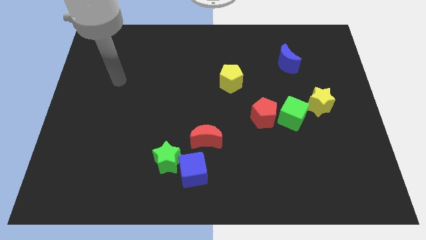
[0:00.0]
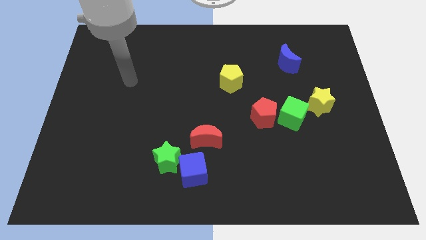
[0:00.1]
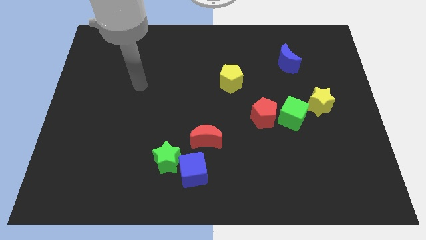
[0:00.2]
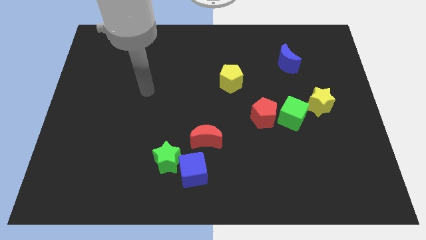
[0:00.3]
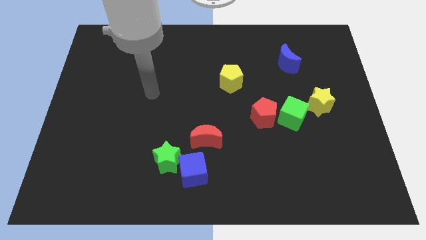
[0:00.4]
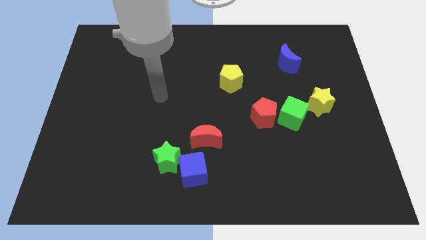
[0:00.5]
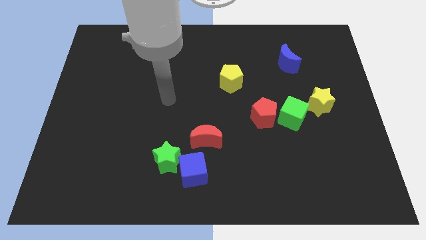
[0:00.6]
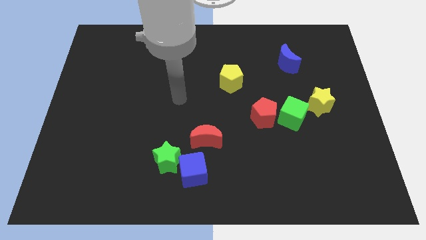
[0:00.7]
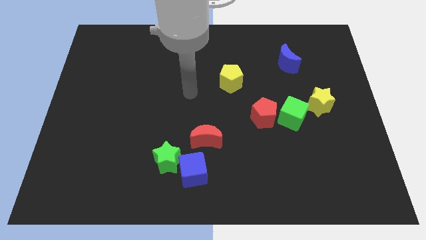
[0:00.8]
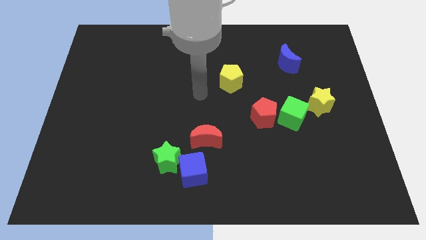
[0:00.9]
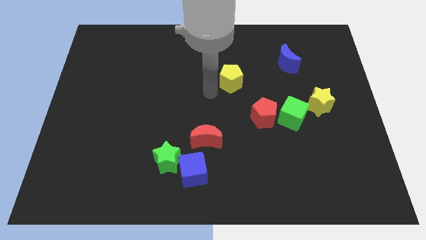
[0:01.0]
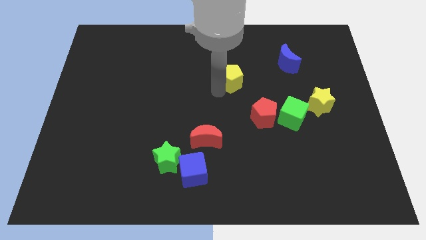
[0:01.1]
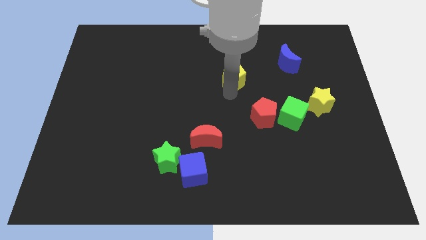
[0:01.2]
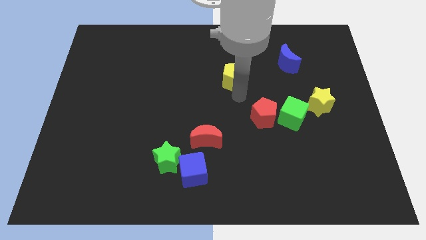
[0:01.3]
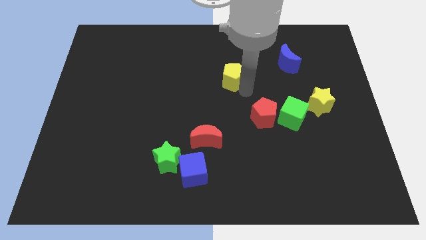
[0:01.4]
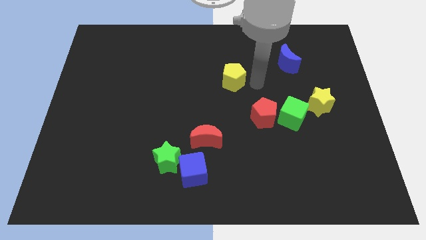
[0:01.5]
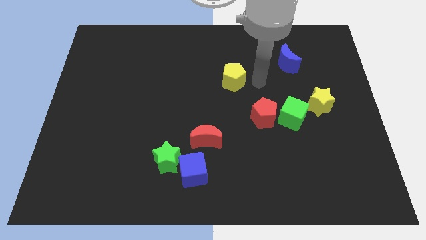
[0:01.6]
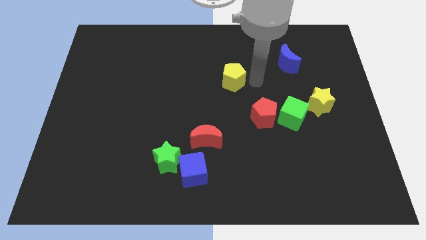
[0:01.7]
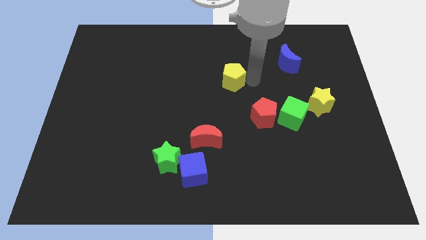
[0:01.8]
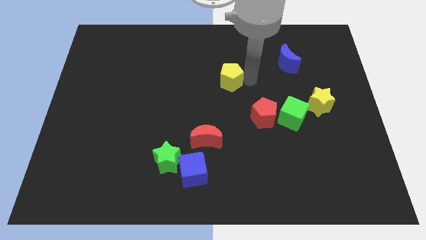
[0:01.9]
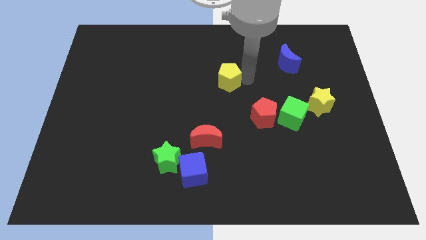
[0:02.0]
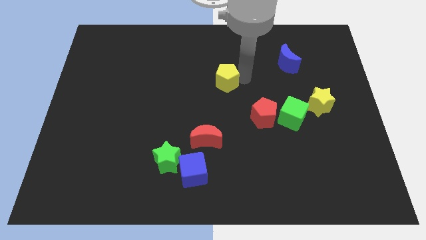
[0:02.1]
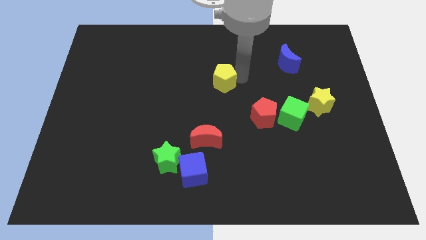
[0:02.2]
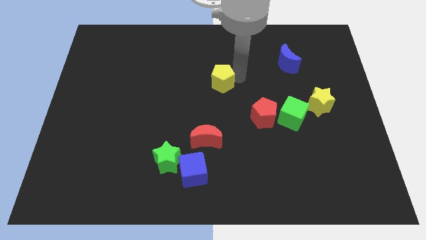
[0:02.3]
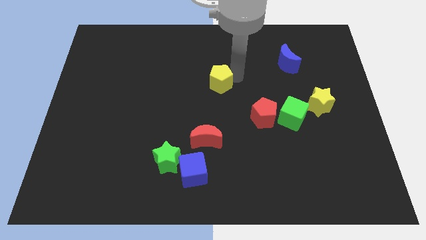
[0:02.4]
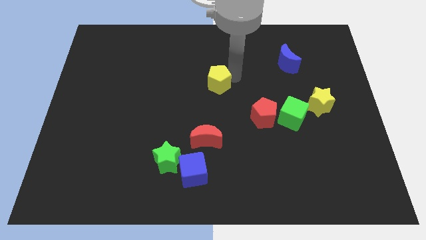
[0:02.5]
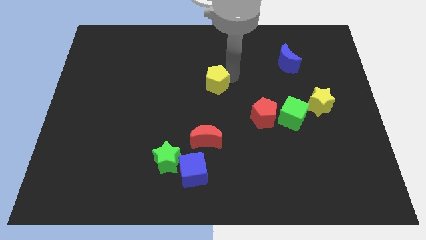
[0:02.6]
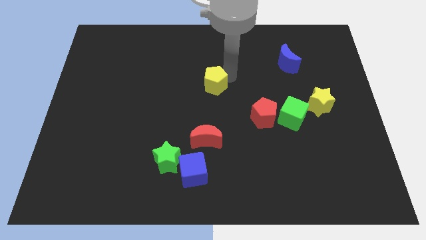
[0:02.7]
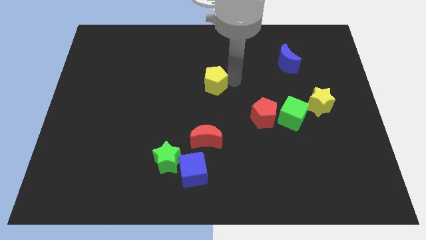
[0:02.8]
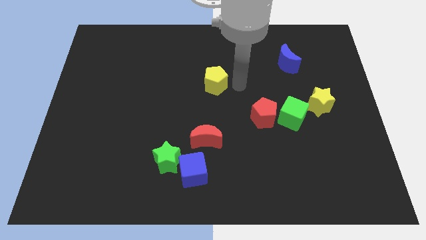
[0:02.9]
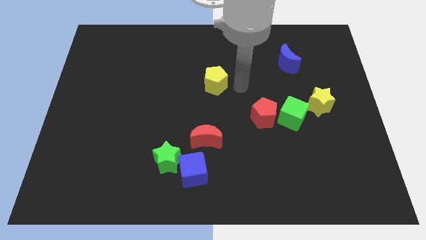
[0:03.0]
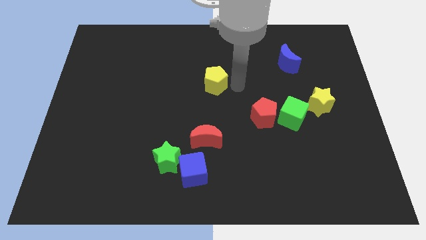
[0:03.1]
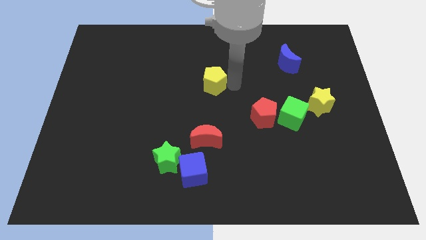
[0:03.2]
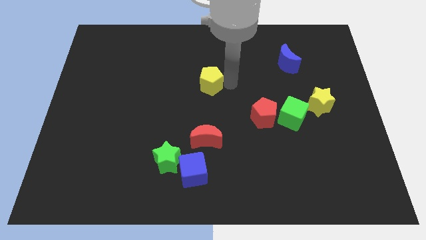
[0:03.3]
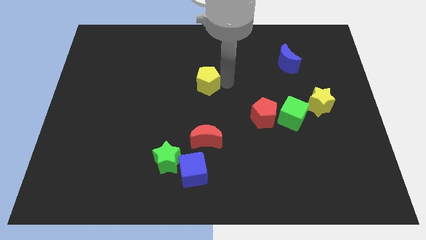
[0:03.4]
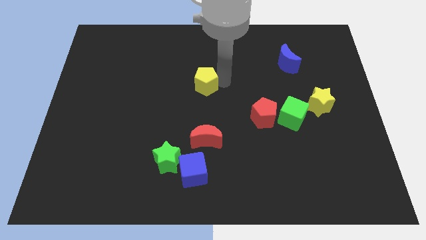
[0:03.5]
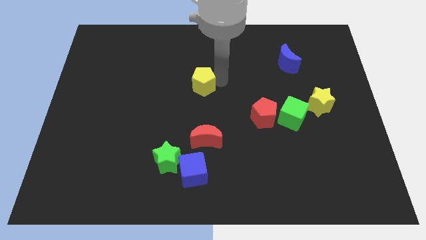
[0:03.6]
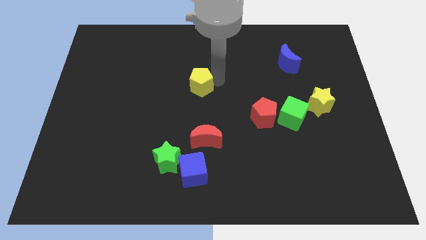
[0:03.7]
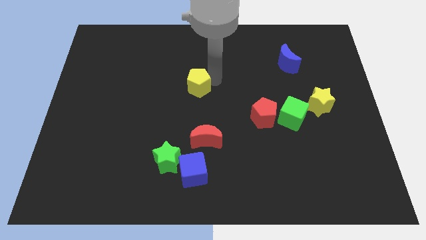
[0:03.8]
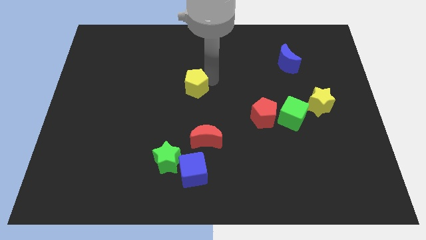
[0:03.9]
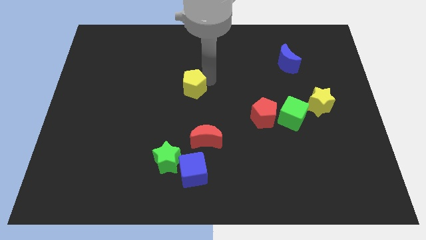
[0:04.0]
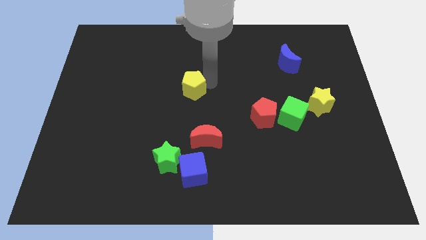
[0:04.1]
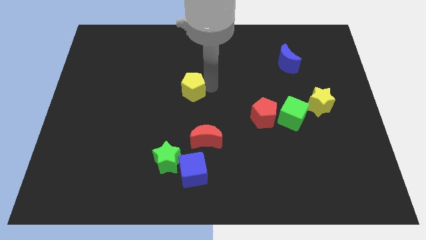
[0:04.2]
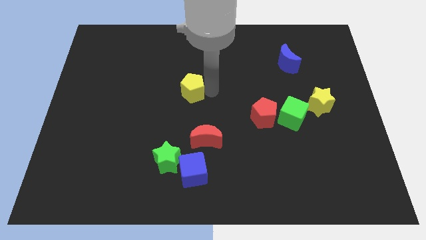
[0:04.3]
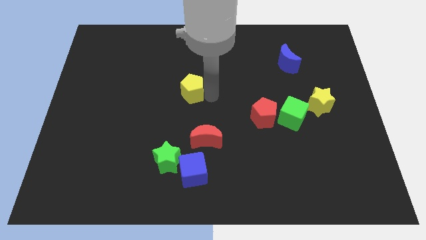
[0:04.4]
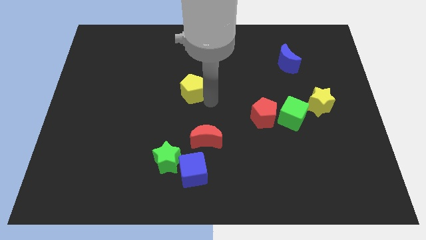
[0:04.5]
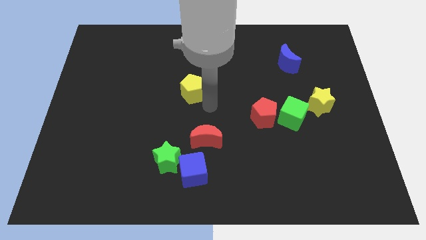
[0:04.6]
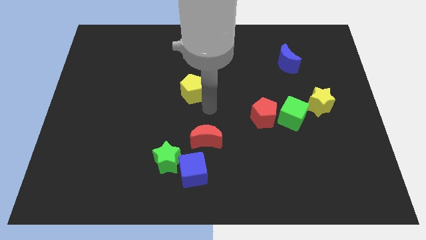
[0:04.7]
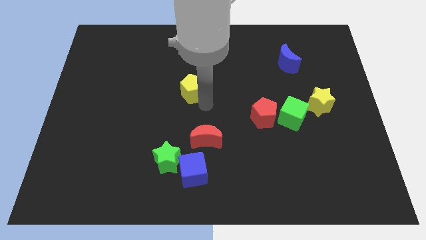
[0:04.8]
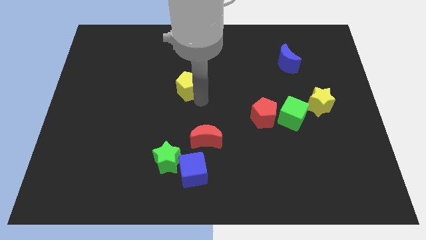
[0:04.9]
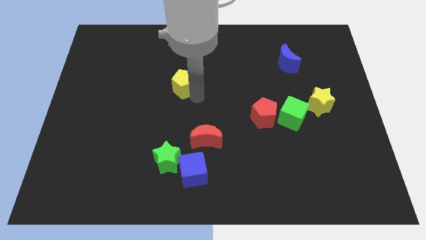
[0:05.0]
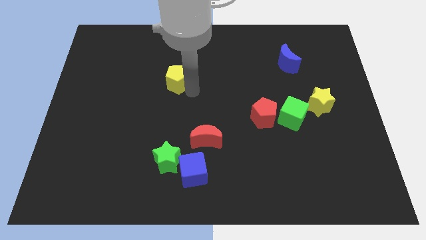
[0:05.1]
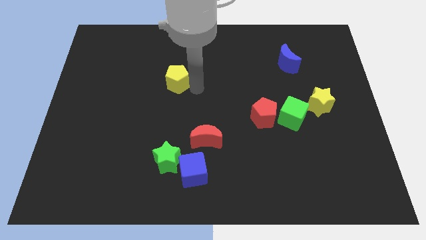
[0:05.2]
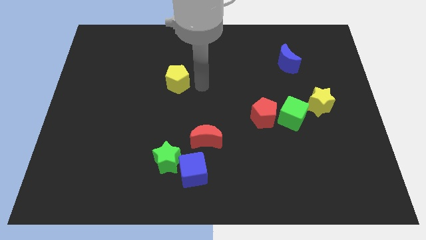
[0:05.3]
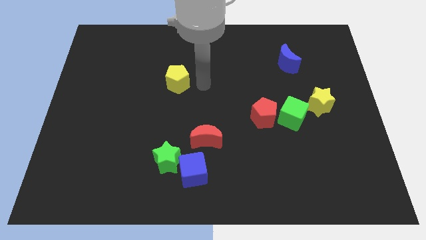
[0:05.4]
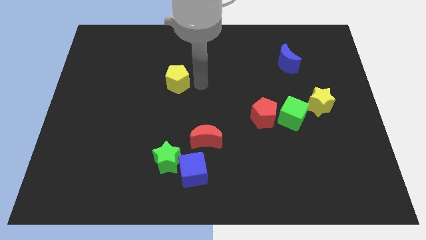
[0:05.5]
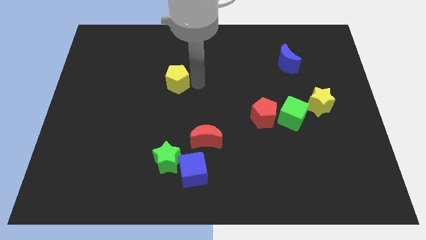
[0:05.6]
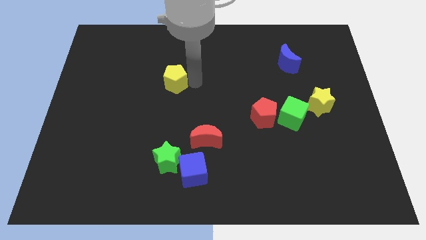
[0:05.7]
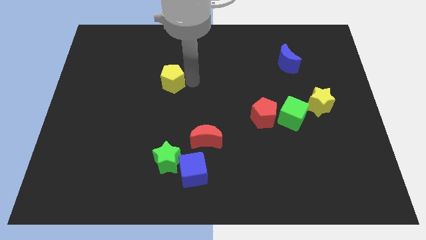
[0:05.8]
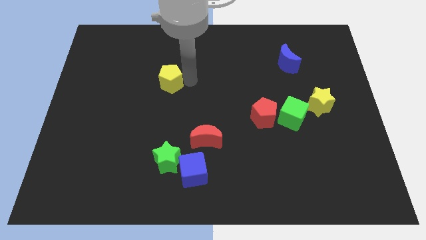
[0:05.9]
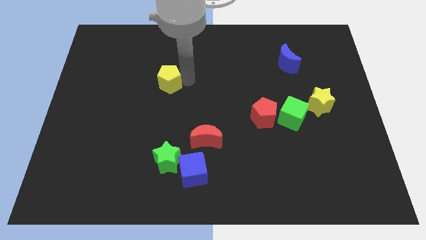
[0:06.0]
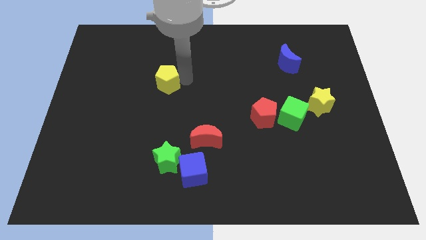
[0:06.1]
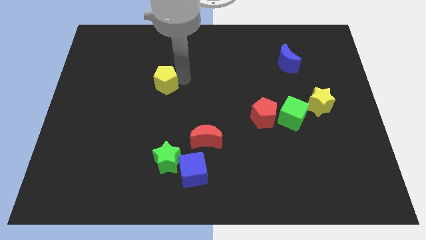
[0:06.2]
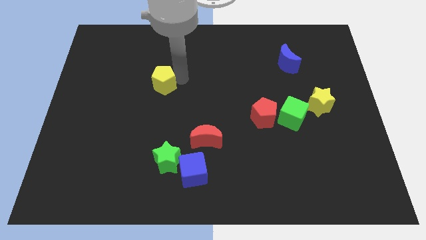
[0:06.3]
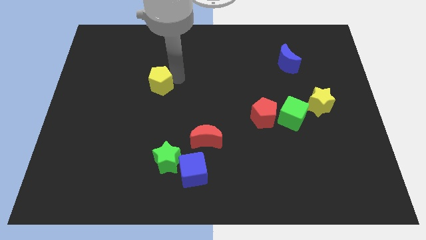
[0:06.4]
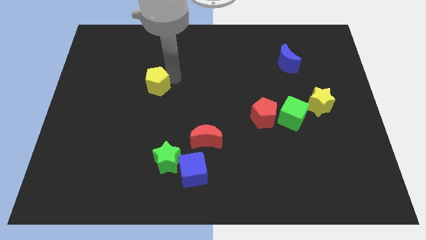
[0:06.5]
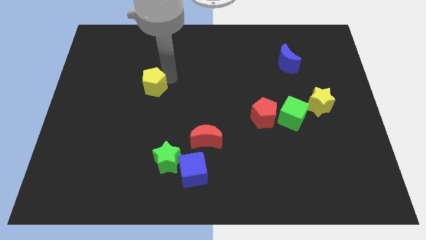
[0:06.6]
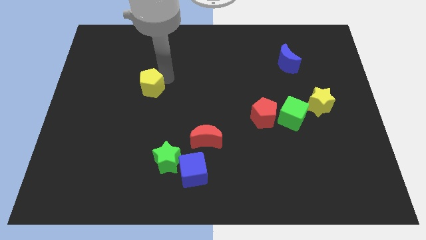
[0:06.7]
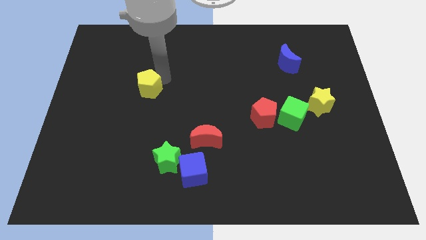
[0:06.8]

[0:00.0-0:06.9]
push the yellow pentagon to the left

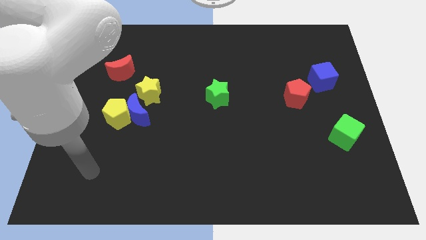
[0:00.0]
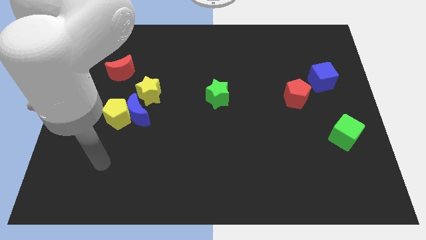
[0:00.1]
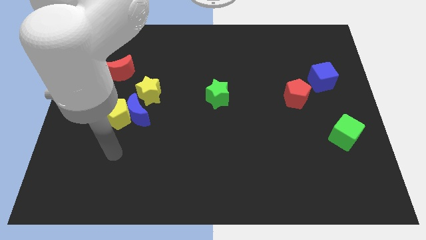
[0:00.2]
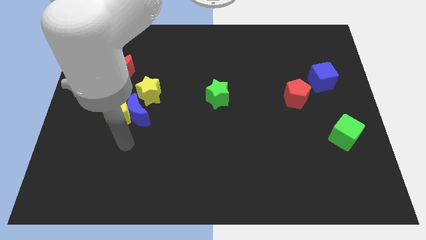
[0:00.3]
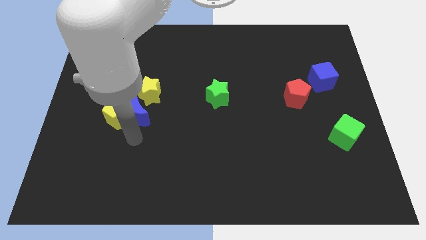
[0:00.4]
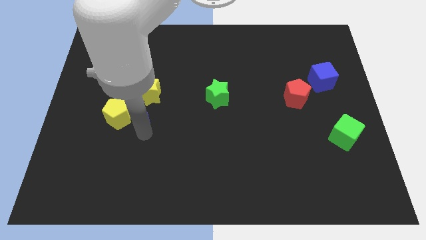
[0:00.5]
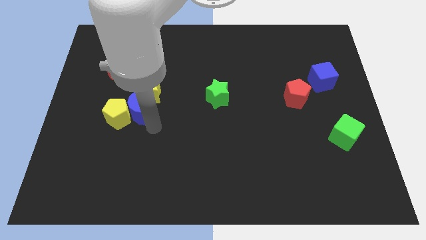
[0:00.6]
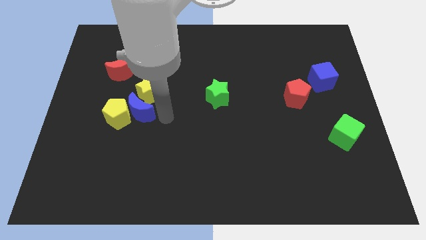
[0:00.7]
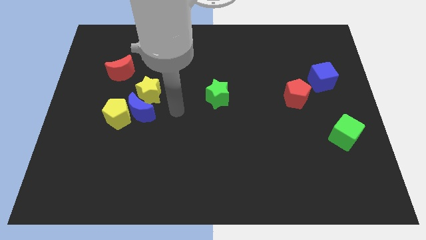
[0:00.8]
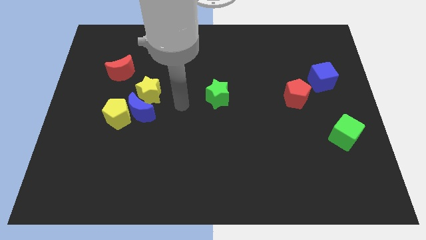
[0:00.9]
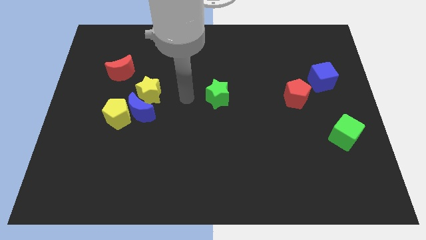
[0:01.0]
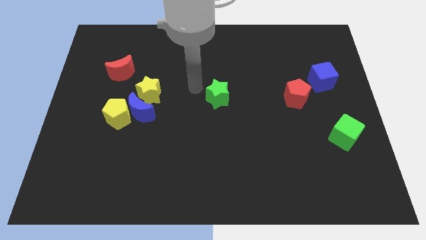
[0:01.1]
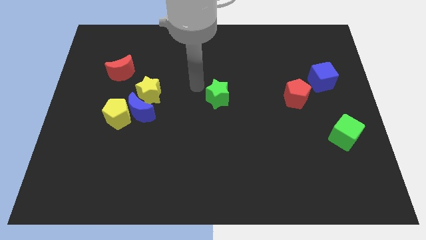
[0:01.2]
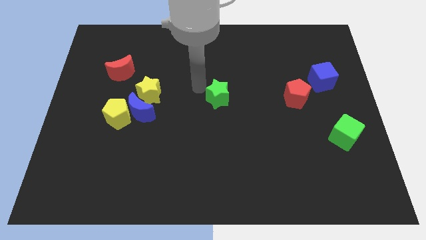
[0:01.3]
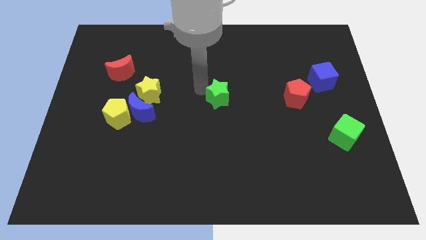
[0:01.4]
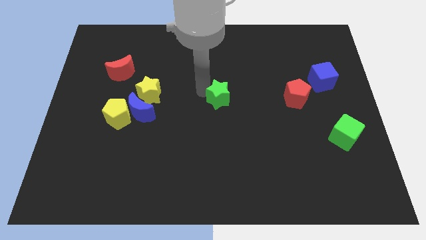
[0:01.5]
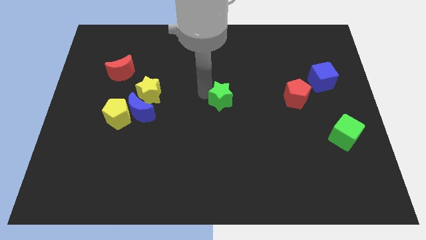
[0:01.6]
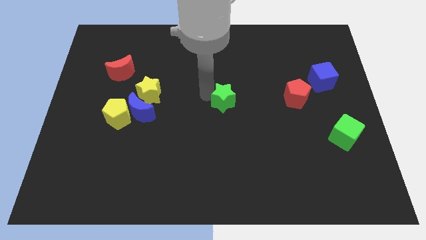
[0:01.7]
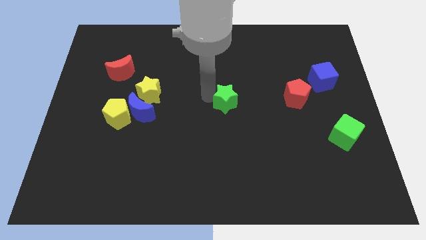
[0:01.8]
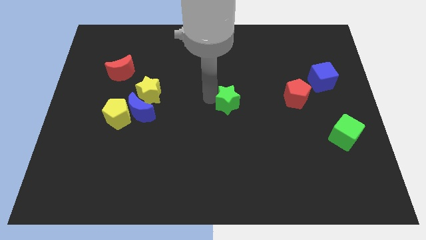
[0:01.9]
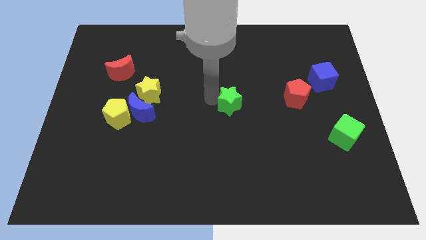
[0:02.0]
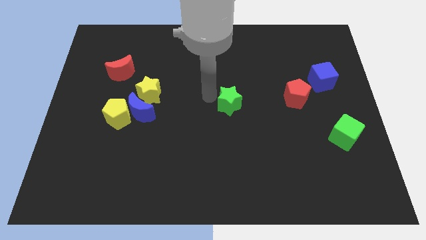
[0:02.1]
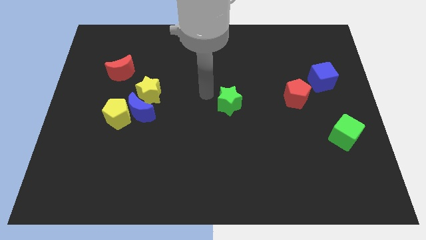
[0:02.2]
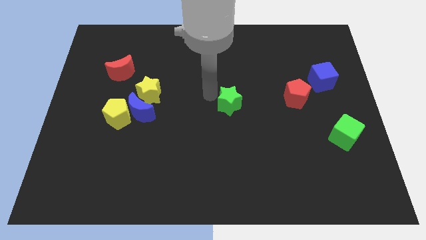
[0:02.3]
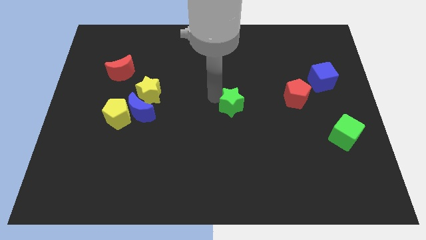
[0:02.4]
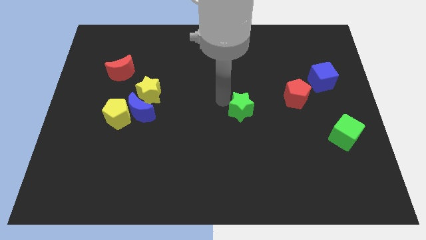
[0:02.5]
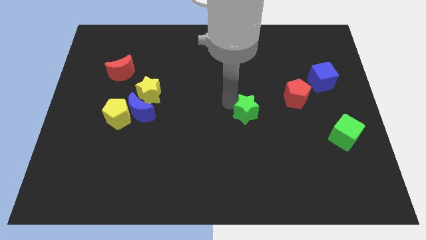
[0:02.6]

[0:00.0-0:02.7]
slide the green star a bit downwards and to the right diagonally
